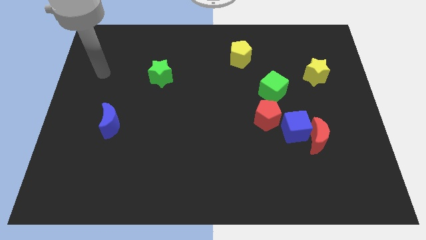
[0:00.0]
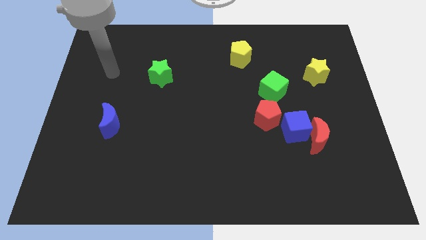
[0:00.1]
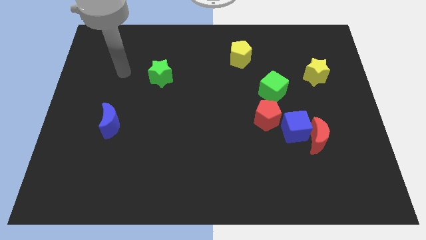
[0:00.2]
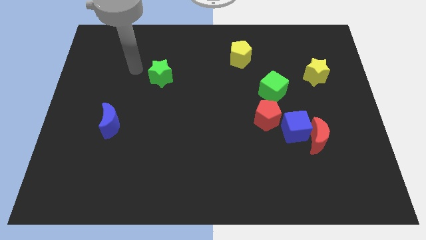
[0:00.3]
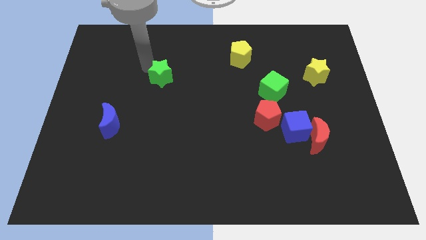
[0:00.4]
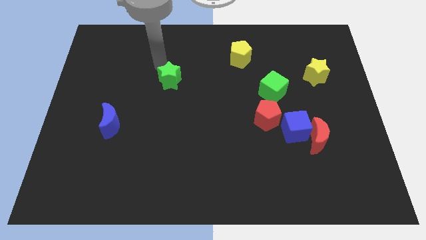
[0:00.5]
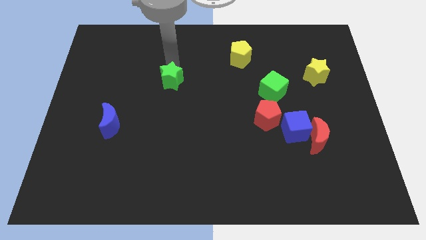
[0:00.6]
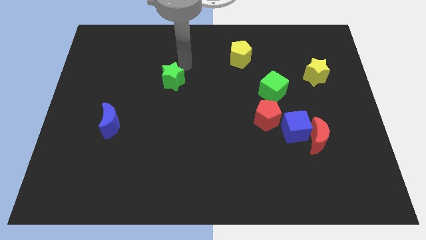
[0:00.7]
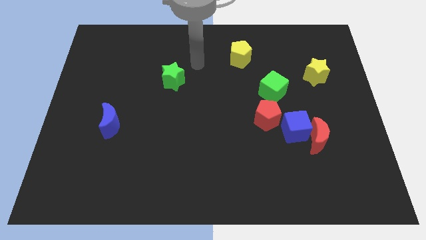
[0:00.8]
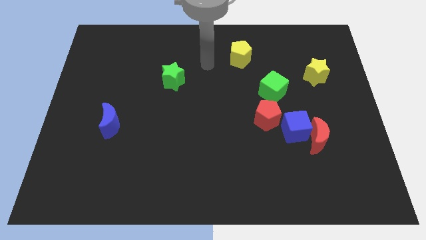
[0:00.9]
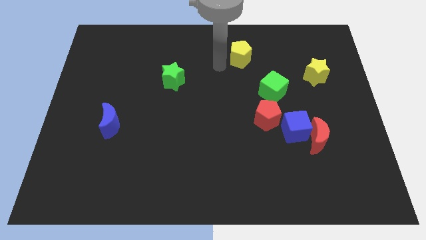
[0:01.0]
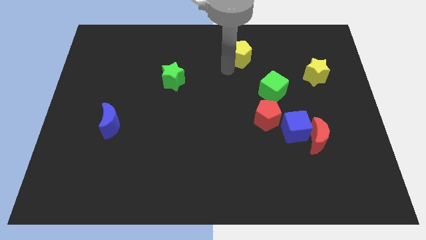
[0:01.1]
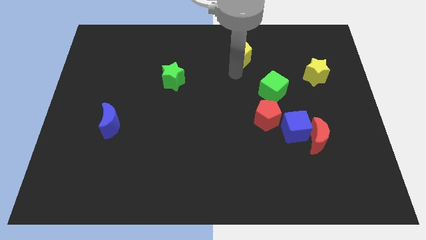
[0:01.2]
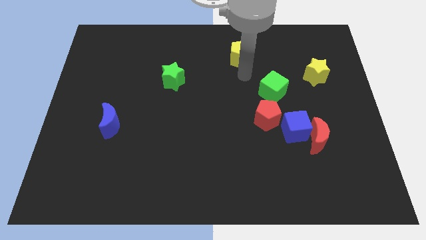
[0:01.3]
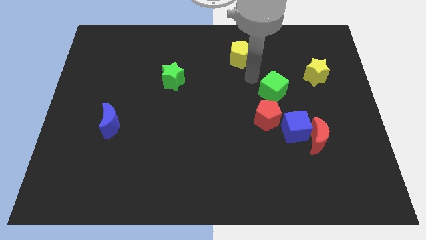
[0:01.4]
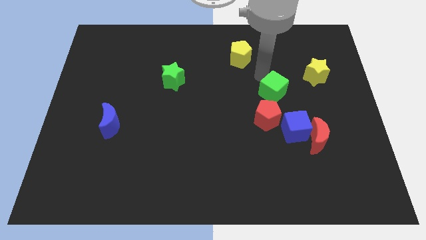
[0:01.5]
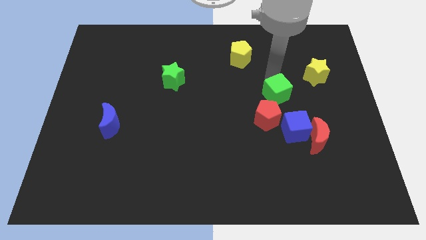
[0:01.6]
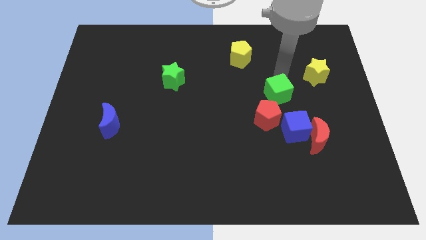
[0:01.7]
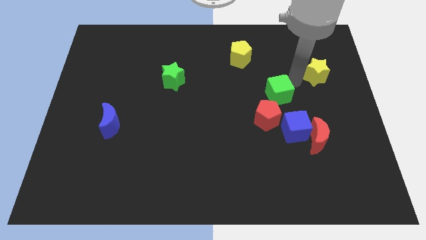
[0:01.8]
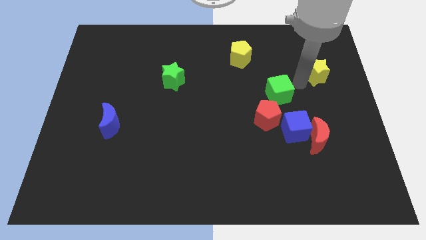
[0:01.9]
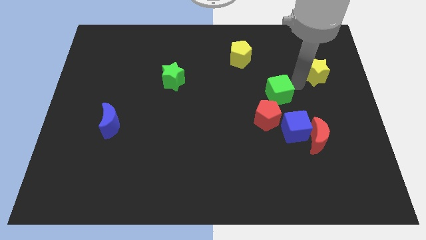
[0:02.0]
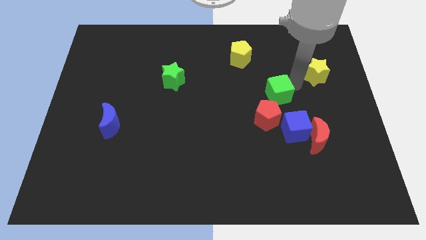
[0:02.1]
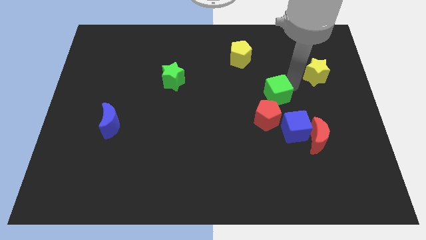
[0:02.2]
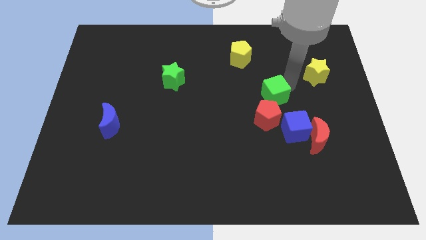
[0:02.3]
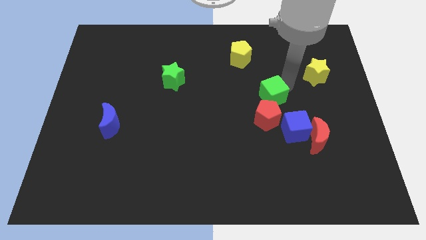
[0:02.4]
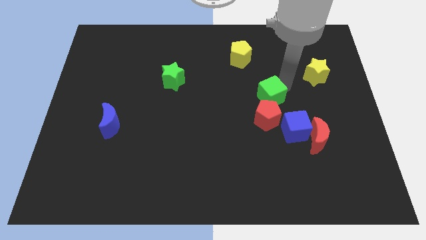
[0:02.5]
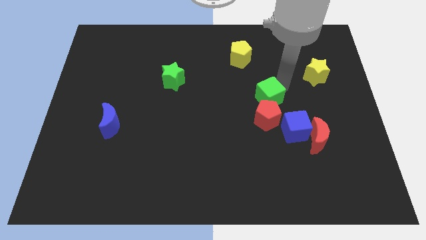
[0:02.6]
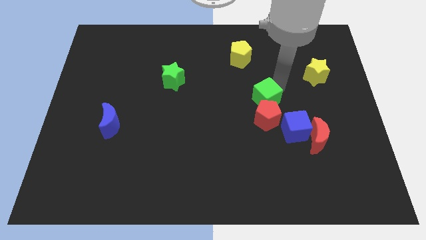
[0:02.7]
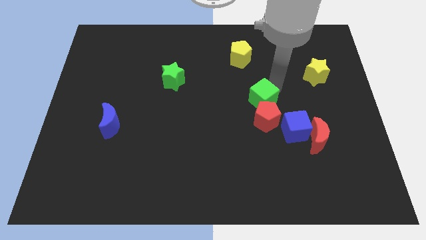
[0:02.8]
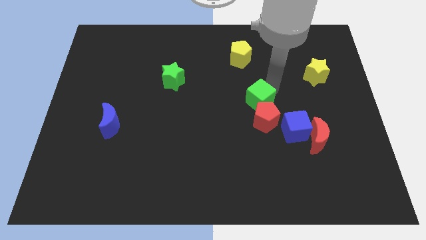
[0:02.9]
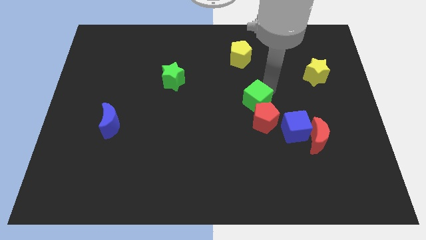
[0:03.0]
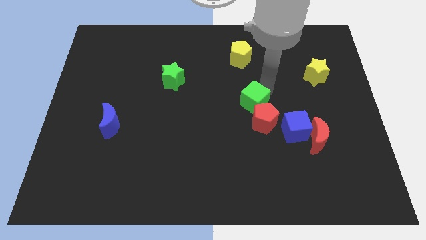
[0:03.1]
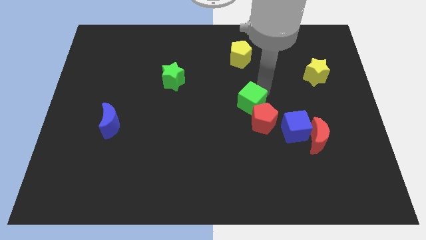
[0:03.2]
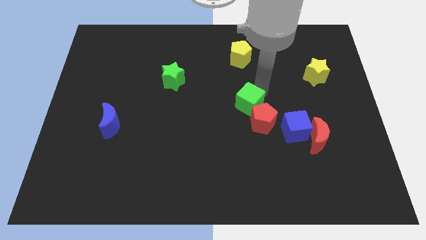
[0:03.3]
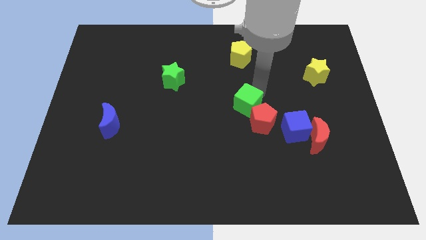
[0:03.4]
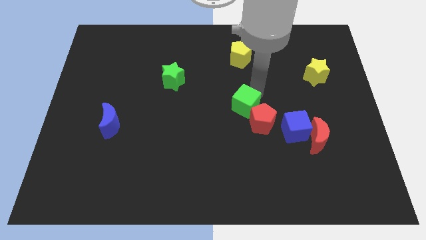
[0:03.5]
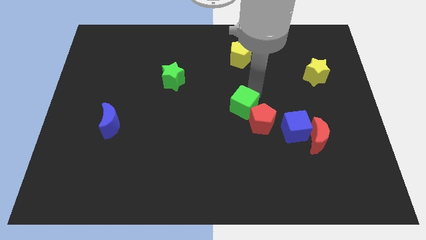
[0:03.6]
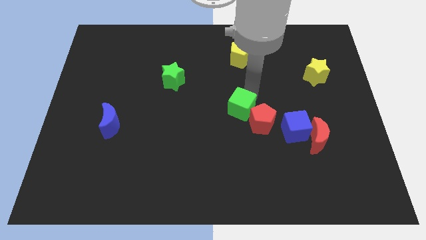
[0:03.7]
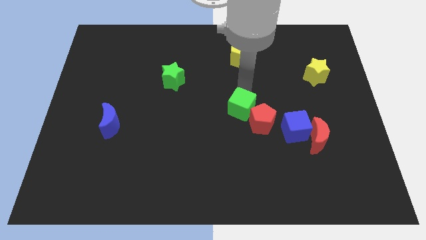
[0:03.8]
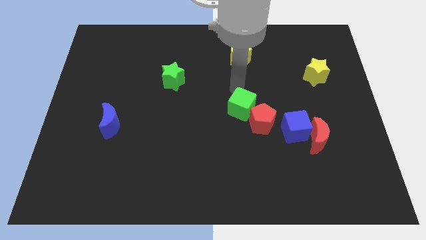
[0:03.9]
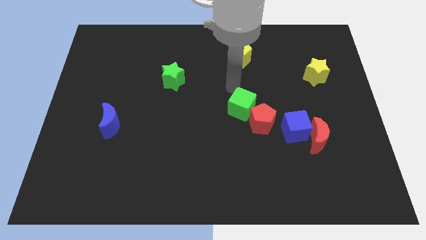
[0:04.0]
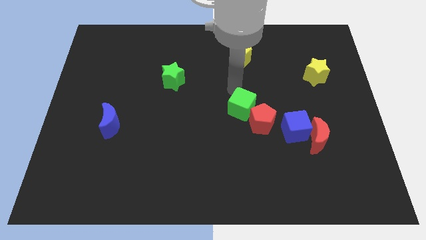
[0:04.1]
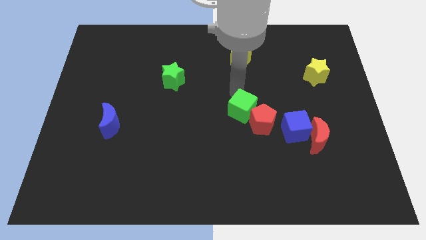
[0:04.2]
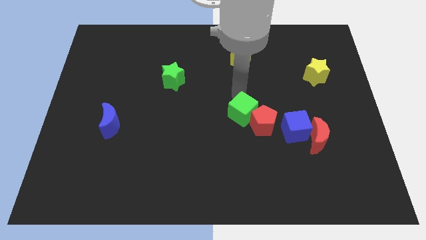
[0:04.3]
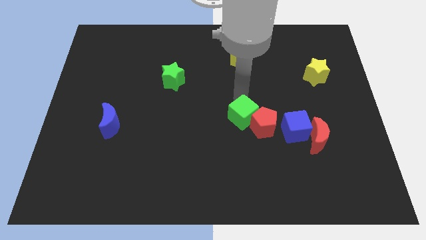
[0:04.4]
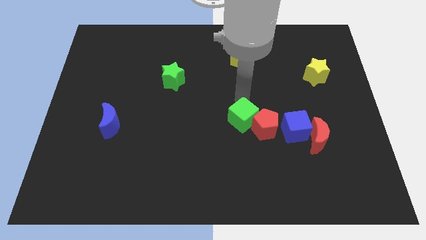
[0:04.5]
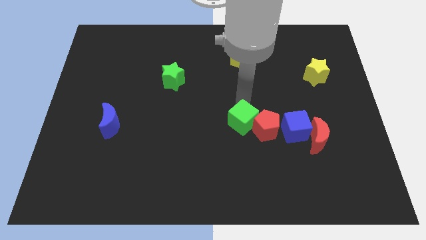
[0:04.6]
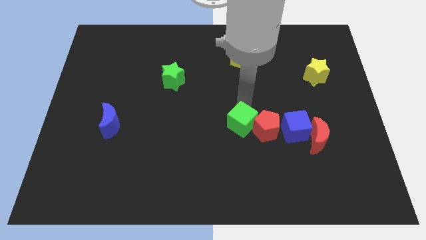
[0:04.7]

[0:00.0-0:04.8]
slide the green cube down slightly

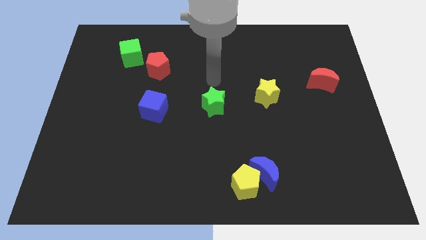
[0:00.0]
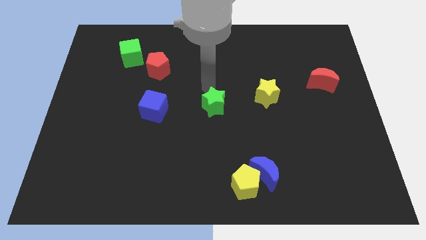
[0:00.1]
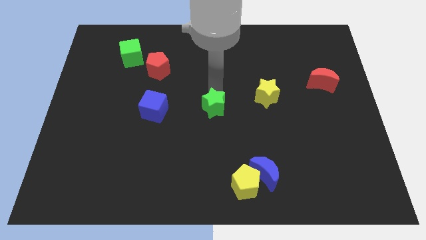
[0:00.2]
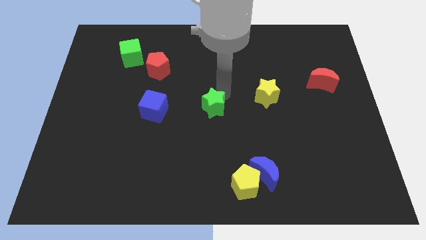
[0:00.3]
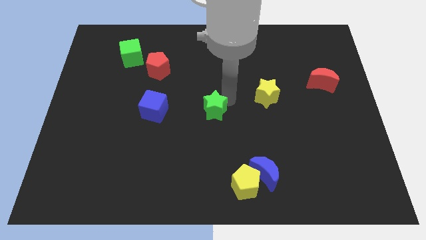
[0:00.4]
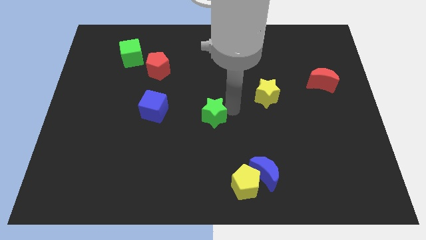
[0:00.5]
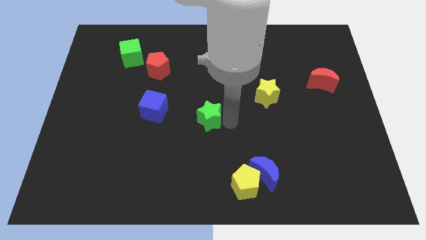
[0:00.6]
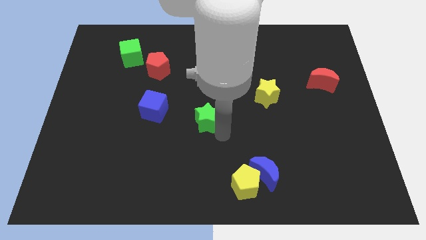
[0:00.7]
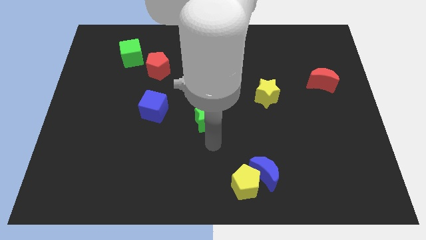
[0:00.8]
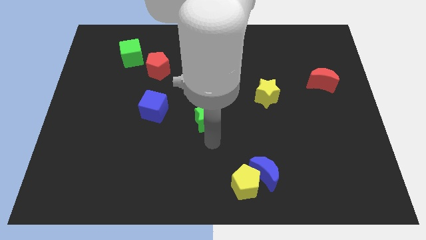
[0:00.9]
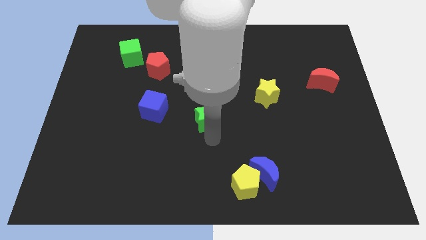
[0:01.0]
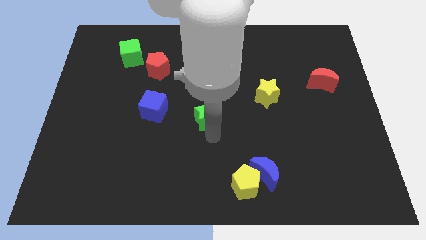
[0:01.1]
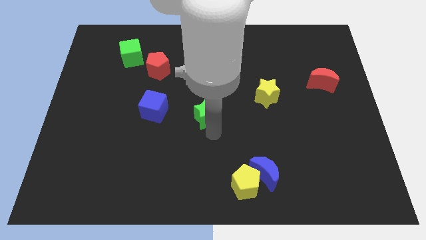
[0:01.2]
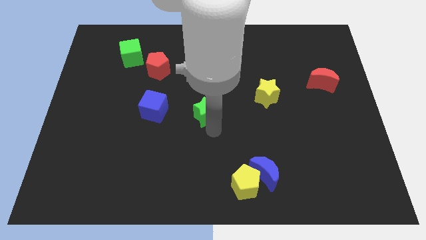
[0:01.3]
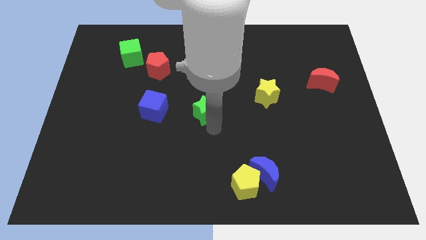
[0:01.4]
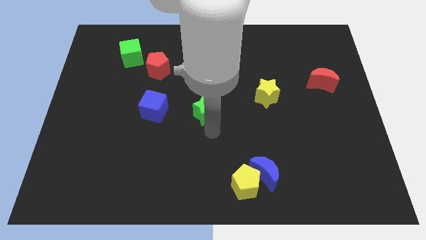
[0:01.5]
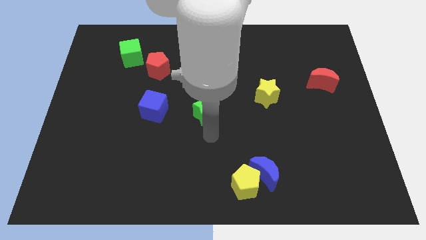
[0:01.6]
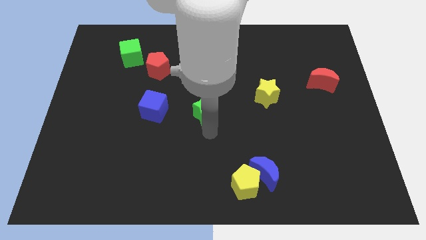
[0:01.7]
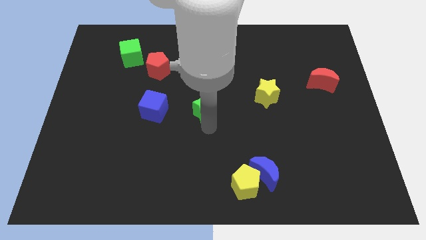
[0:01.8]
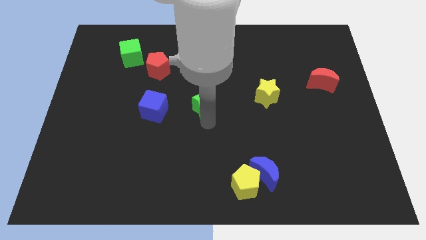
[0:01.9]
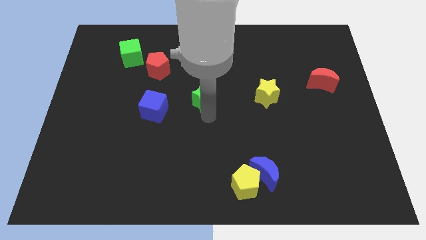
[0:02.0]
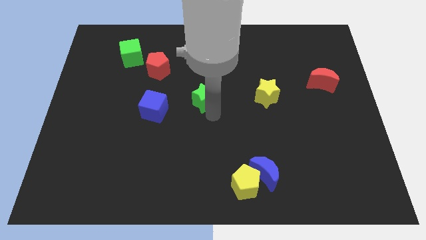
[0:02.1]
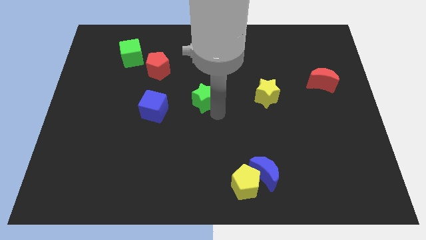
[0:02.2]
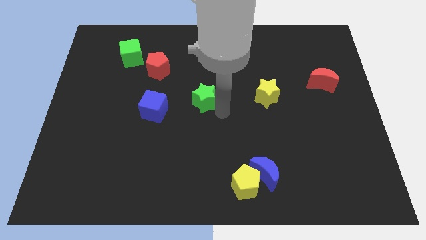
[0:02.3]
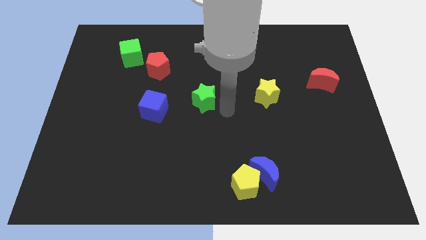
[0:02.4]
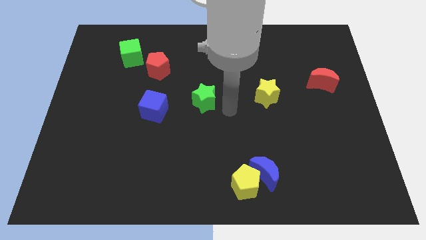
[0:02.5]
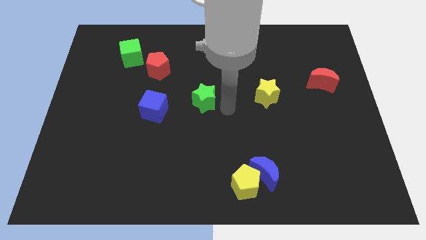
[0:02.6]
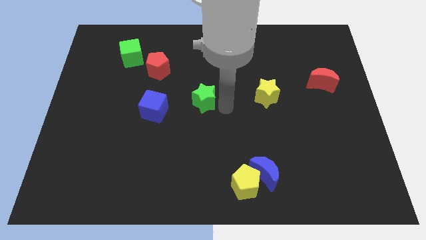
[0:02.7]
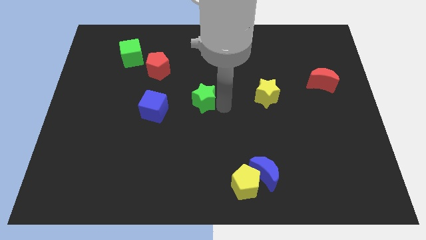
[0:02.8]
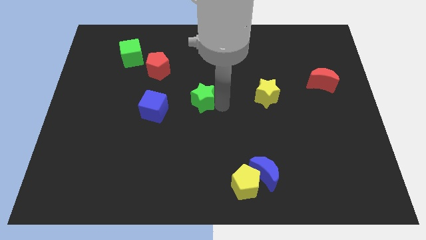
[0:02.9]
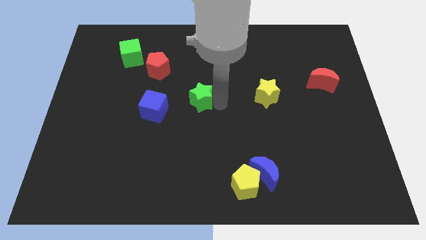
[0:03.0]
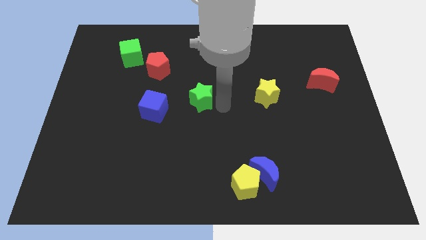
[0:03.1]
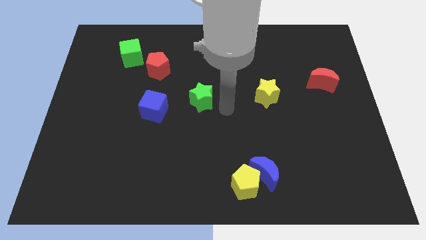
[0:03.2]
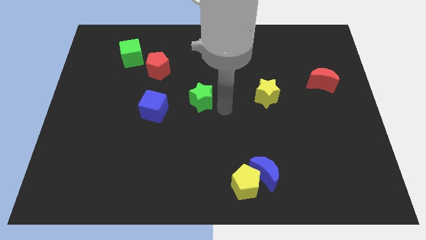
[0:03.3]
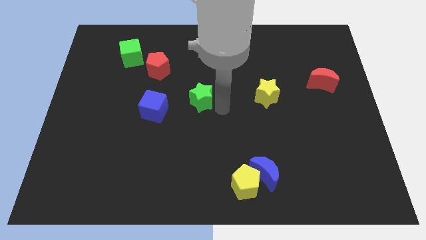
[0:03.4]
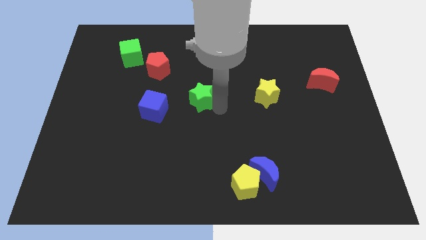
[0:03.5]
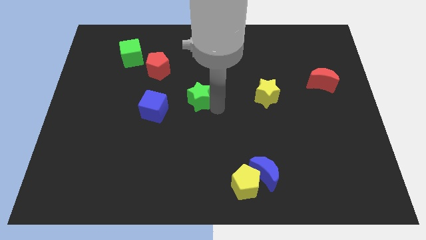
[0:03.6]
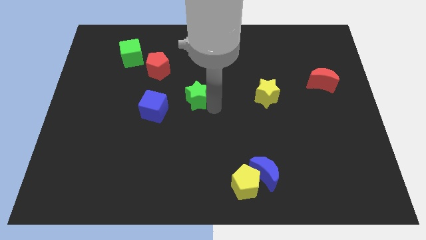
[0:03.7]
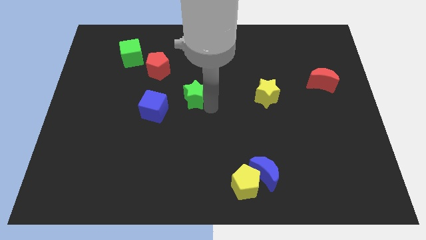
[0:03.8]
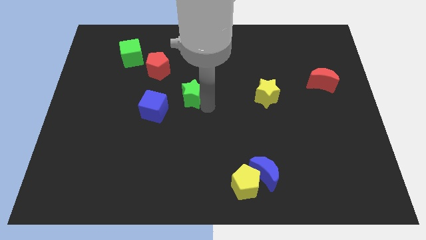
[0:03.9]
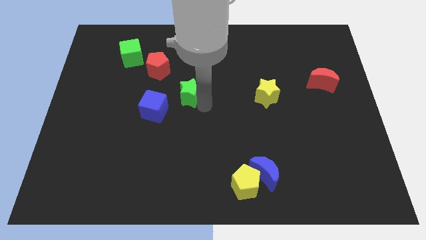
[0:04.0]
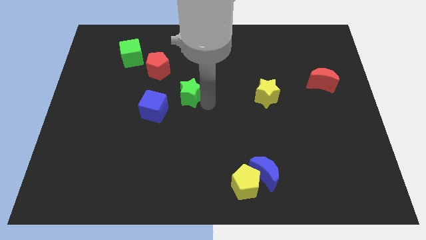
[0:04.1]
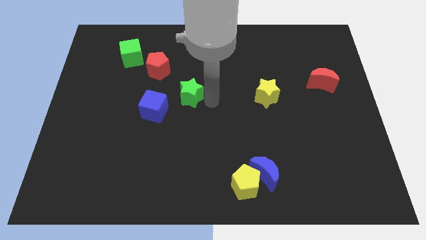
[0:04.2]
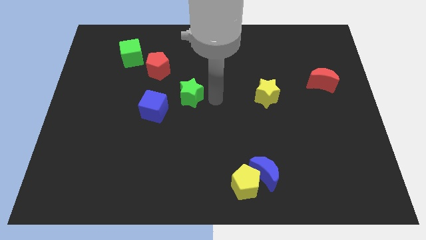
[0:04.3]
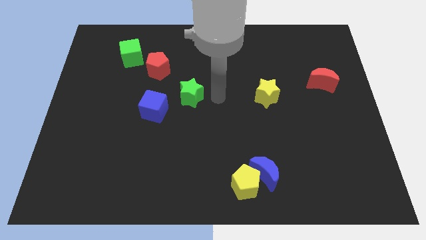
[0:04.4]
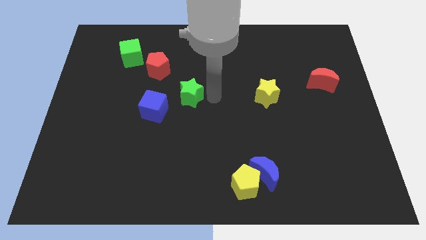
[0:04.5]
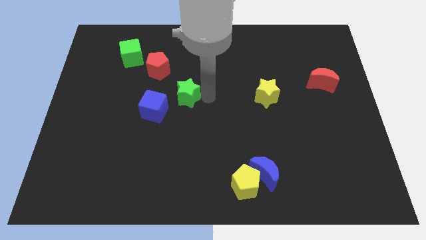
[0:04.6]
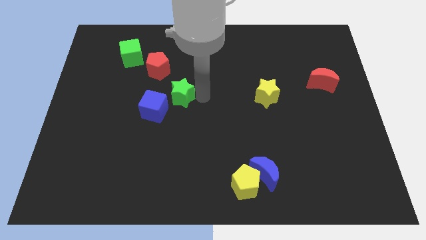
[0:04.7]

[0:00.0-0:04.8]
push the green star slightly left
